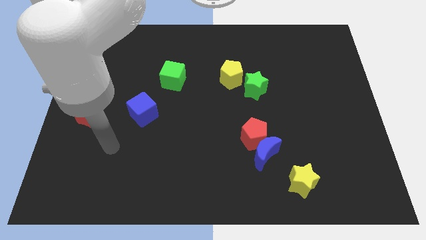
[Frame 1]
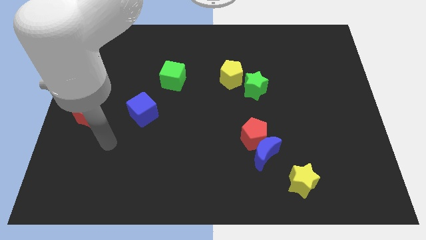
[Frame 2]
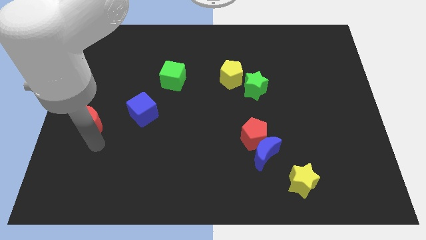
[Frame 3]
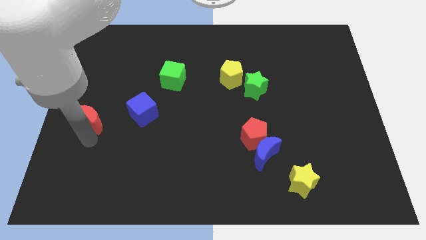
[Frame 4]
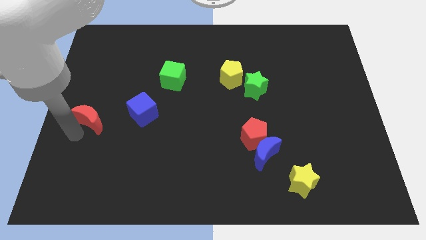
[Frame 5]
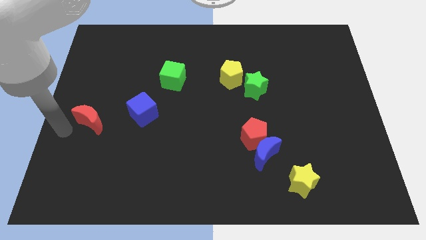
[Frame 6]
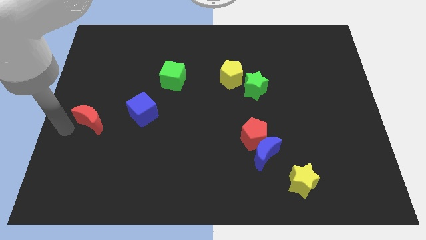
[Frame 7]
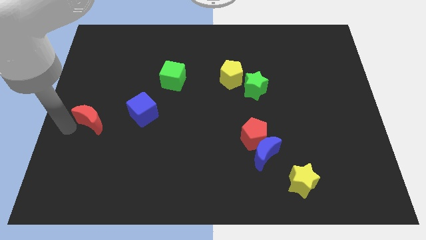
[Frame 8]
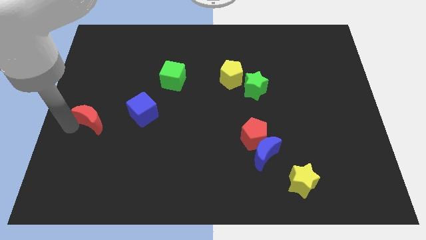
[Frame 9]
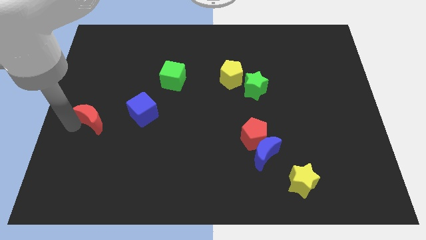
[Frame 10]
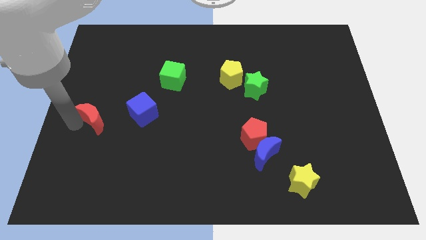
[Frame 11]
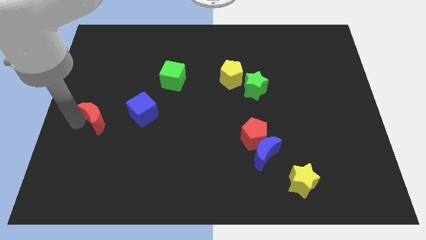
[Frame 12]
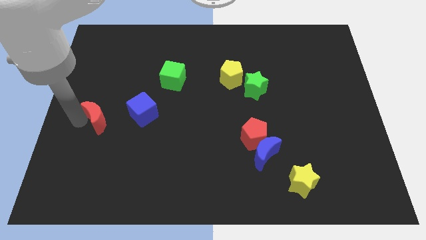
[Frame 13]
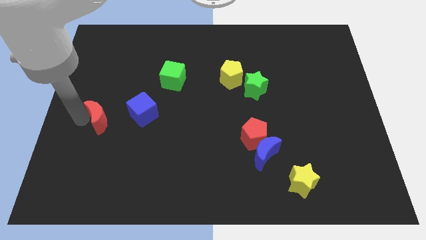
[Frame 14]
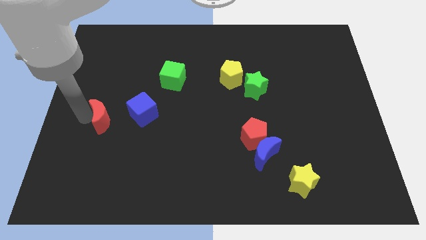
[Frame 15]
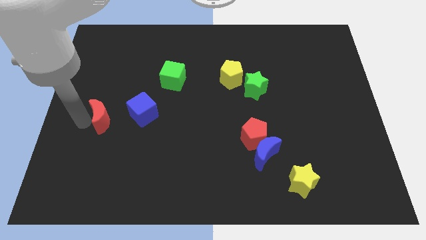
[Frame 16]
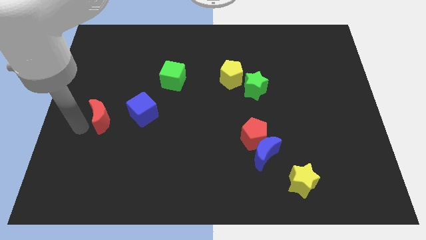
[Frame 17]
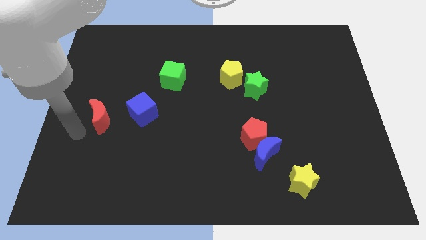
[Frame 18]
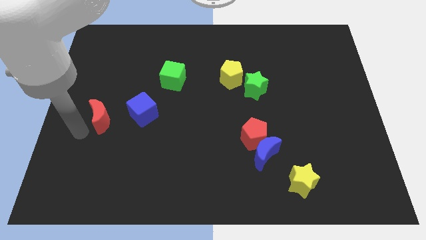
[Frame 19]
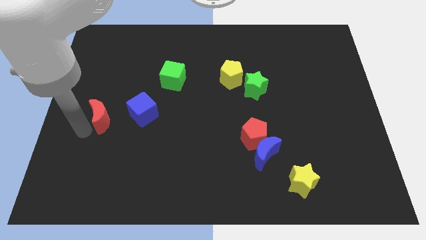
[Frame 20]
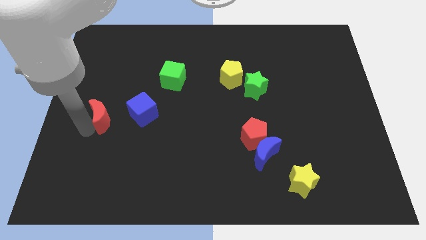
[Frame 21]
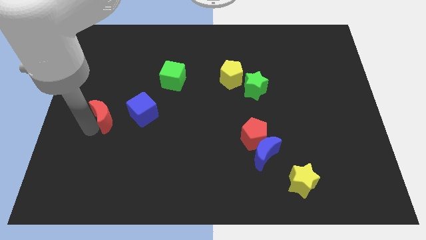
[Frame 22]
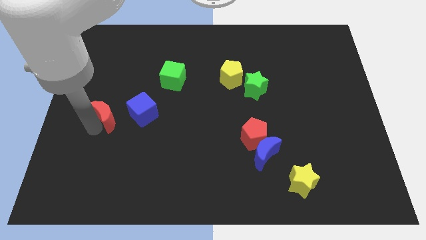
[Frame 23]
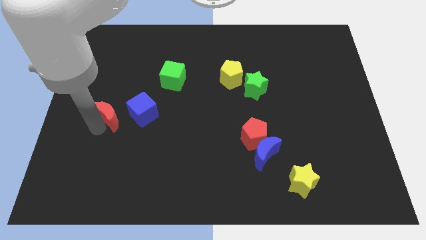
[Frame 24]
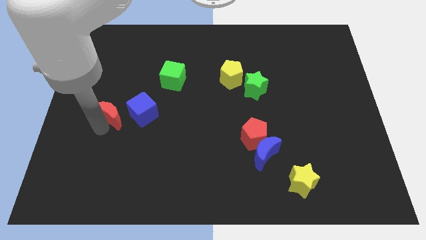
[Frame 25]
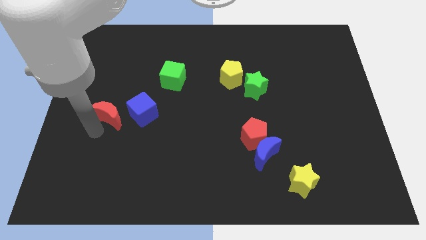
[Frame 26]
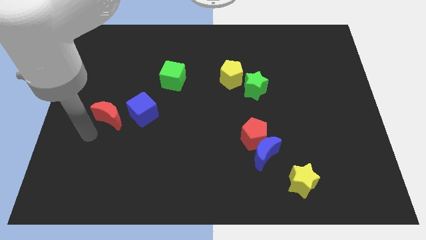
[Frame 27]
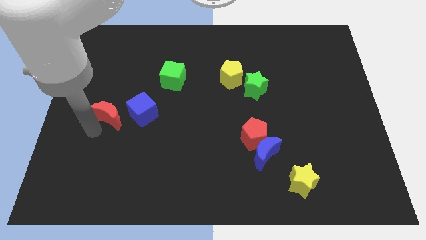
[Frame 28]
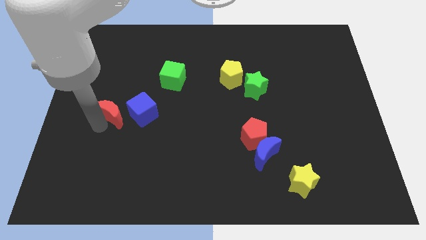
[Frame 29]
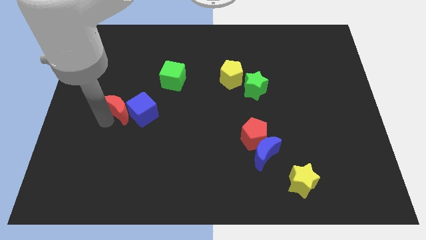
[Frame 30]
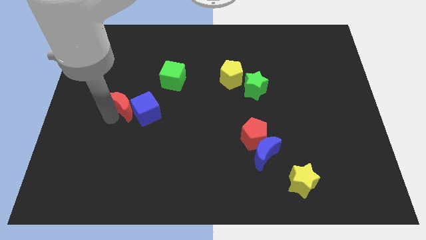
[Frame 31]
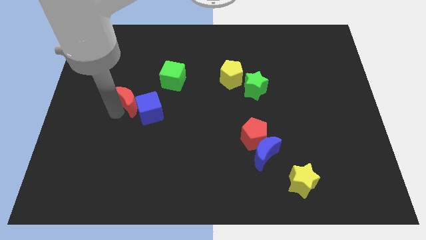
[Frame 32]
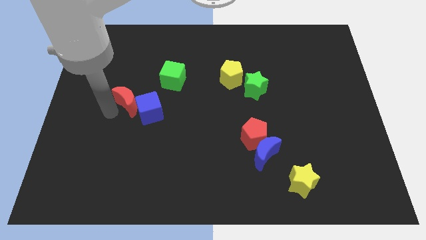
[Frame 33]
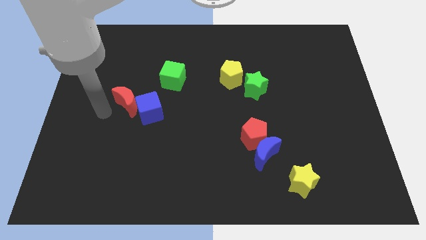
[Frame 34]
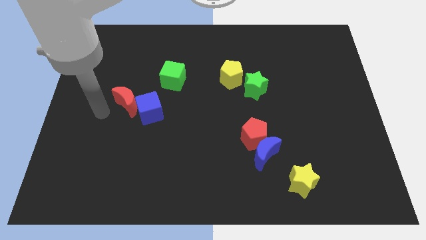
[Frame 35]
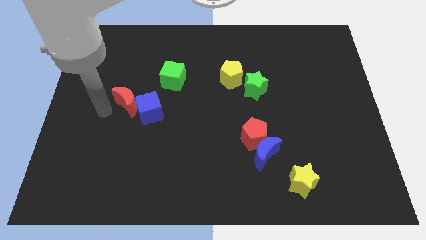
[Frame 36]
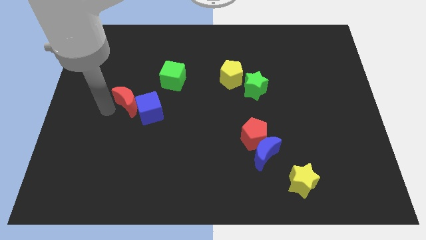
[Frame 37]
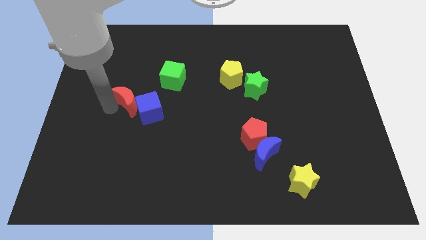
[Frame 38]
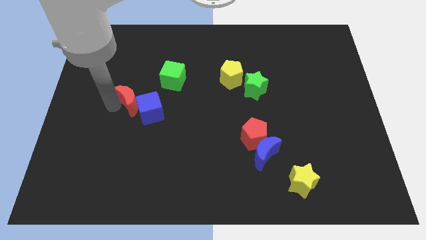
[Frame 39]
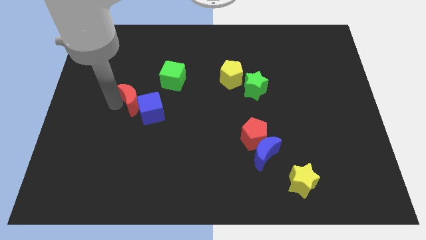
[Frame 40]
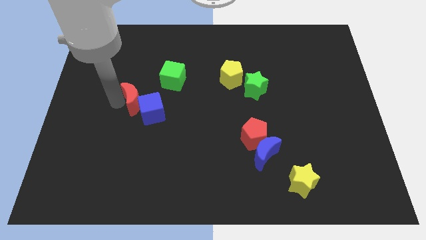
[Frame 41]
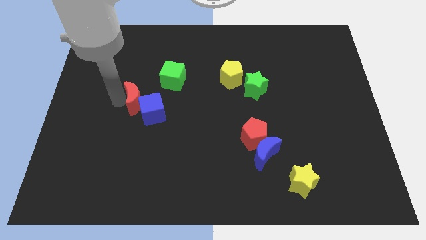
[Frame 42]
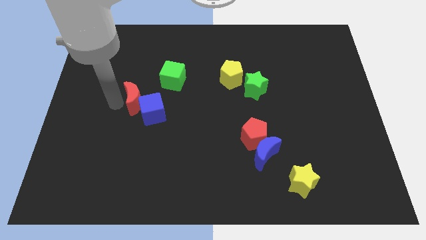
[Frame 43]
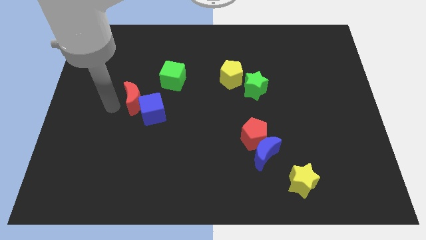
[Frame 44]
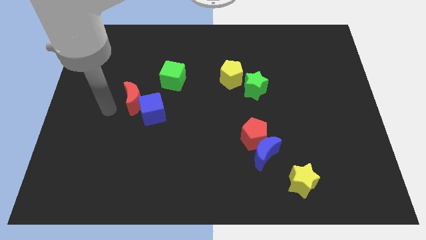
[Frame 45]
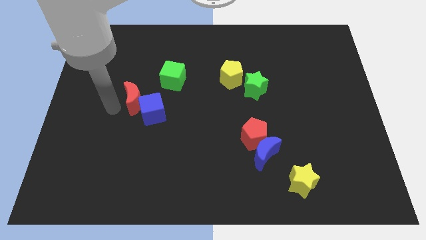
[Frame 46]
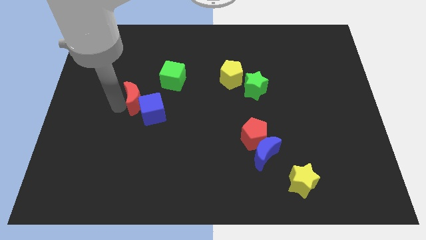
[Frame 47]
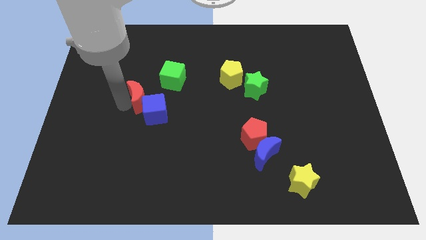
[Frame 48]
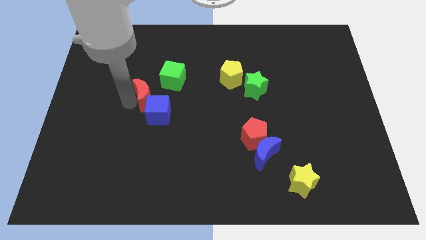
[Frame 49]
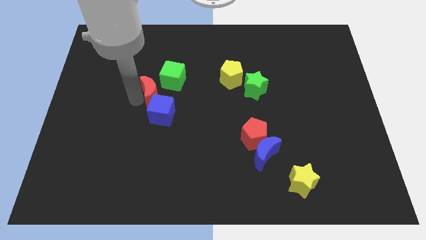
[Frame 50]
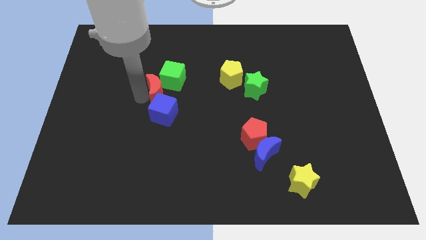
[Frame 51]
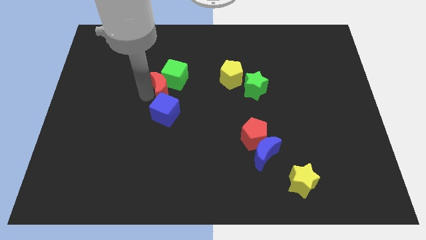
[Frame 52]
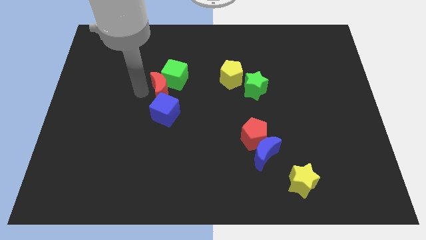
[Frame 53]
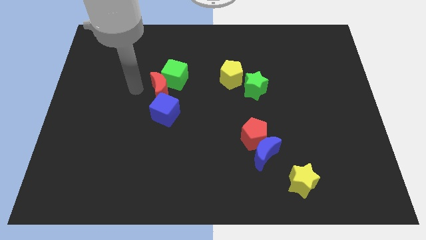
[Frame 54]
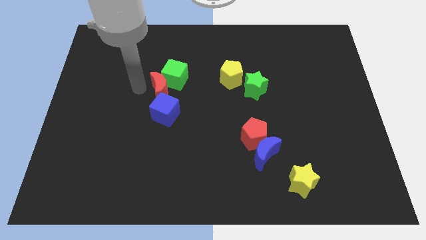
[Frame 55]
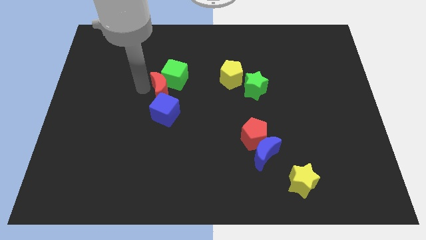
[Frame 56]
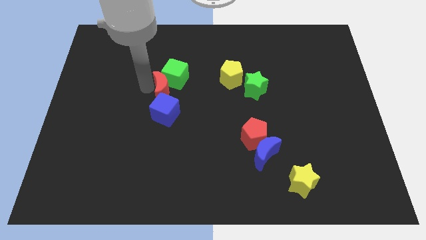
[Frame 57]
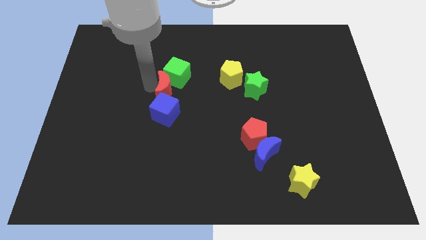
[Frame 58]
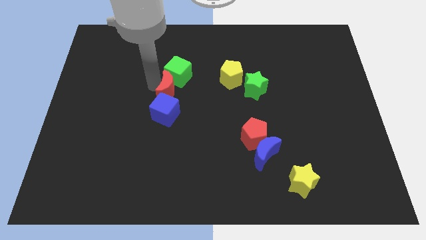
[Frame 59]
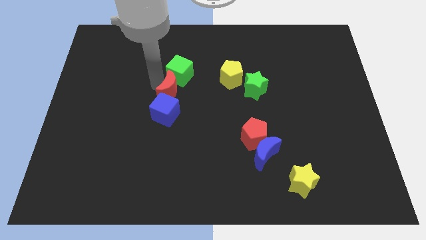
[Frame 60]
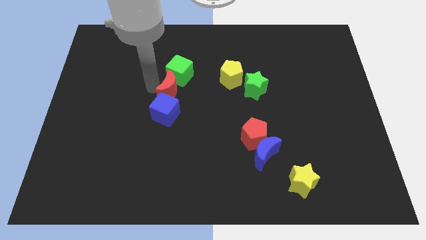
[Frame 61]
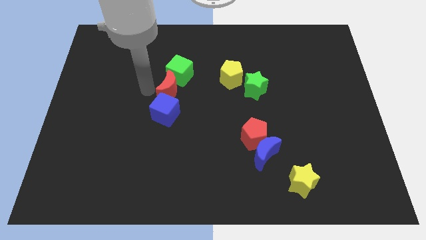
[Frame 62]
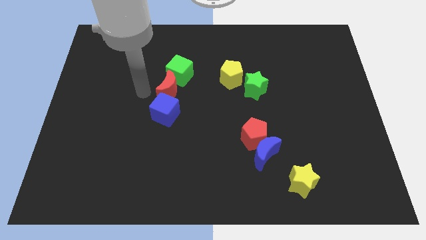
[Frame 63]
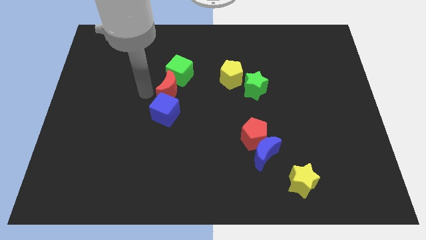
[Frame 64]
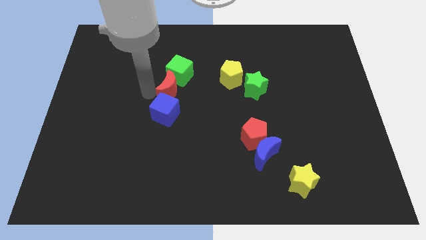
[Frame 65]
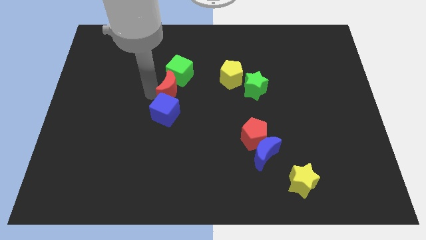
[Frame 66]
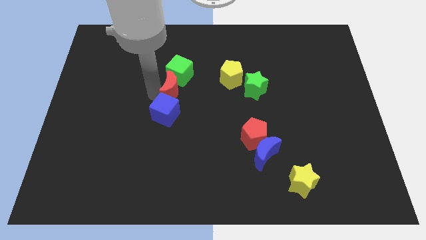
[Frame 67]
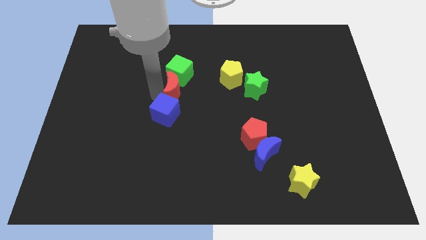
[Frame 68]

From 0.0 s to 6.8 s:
put the red moon diagonally down and to the right of the green cube
